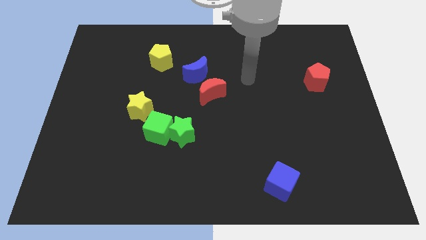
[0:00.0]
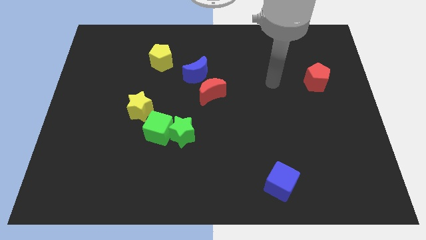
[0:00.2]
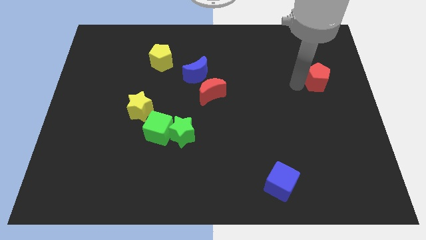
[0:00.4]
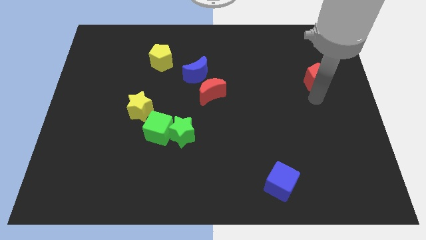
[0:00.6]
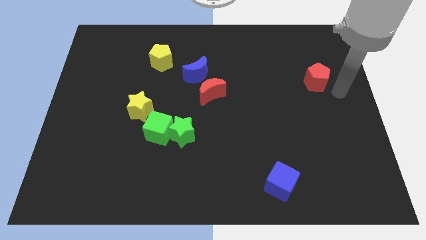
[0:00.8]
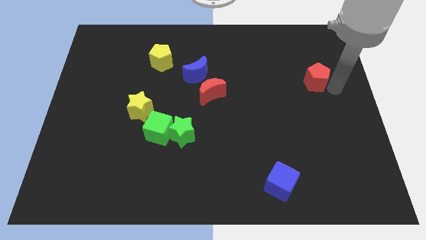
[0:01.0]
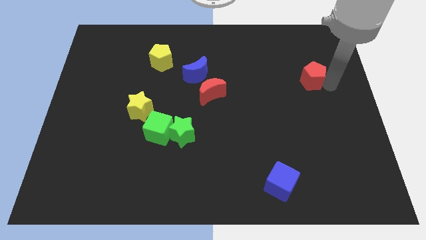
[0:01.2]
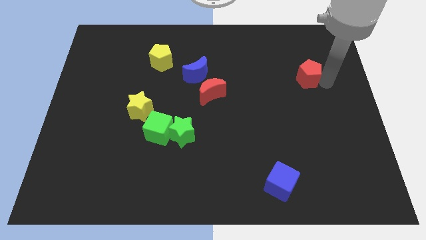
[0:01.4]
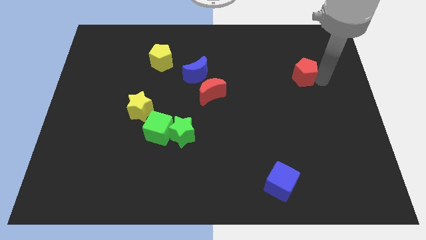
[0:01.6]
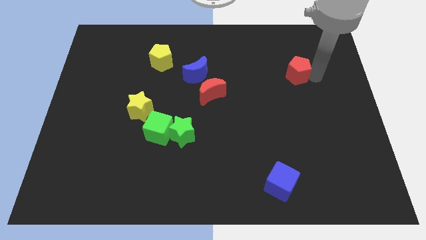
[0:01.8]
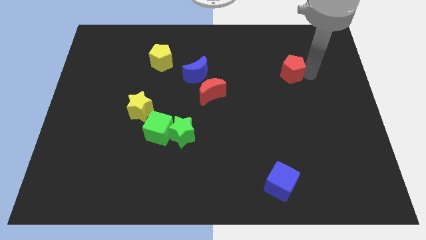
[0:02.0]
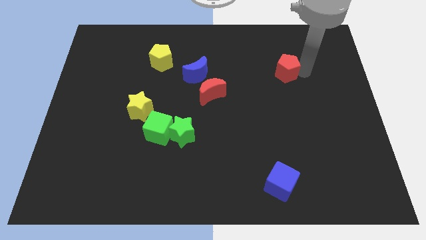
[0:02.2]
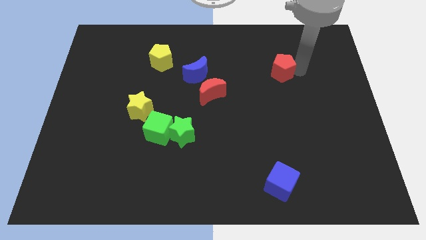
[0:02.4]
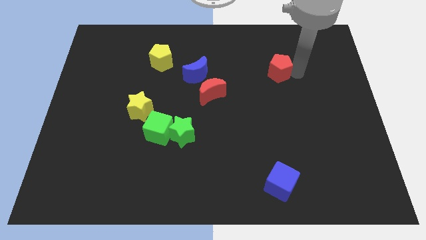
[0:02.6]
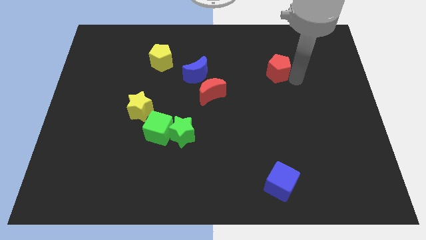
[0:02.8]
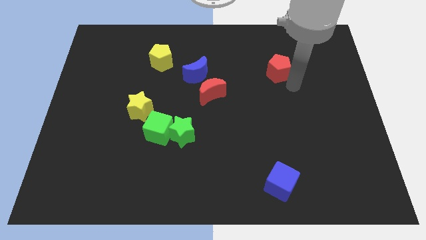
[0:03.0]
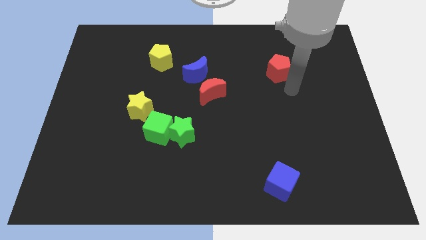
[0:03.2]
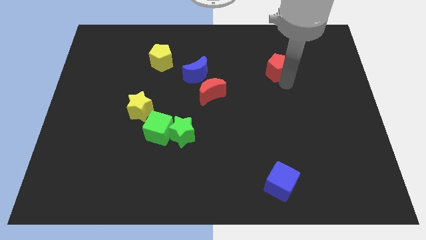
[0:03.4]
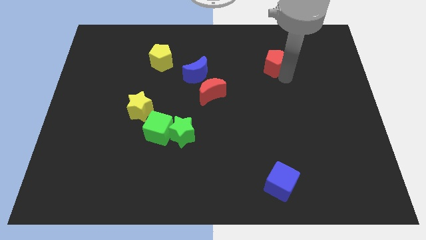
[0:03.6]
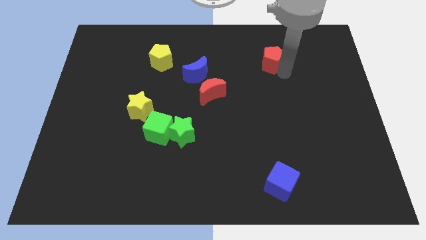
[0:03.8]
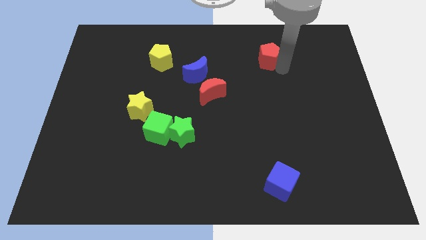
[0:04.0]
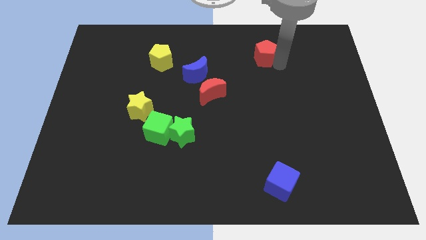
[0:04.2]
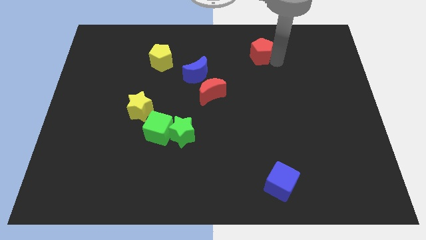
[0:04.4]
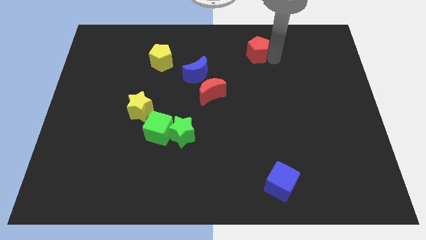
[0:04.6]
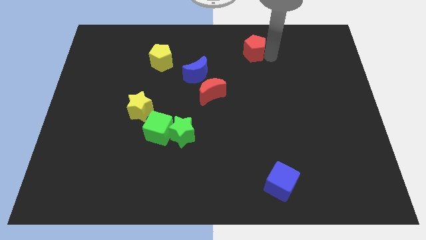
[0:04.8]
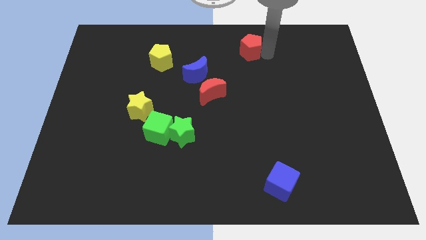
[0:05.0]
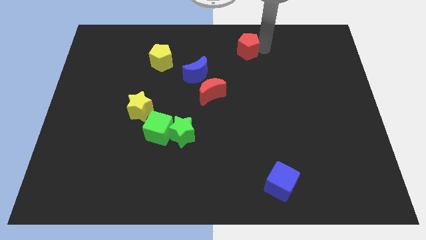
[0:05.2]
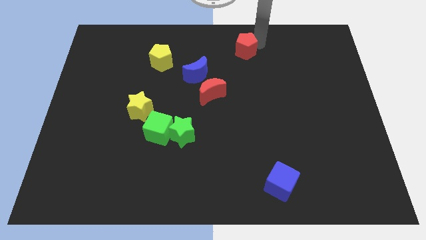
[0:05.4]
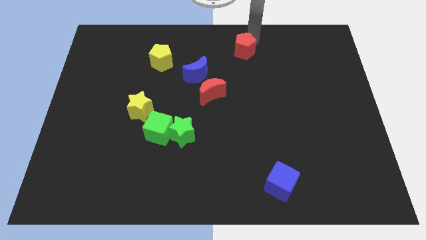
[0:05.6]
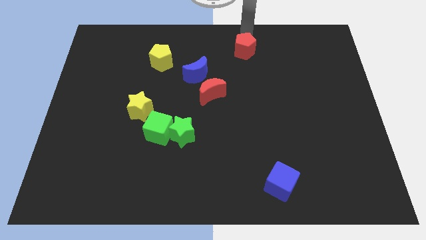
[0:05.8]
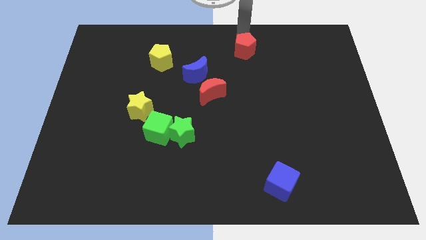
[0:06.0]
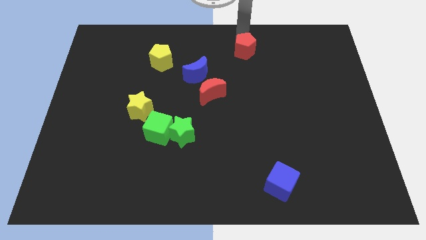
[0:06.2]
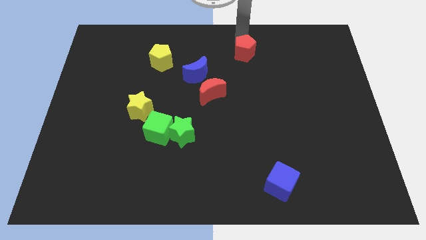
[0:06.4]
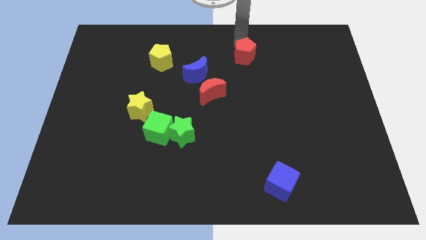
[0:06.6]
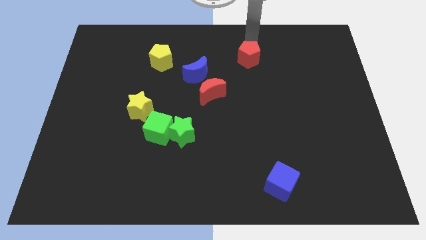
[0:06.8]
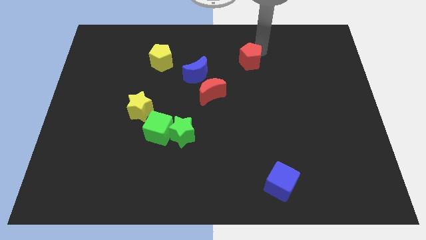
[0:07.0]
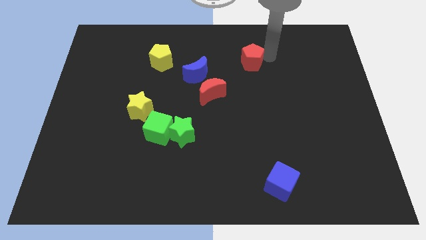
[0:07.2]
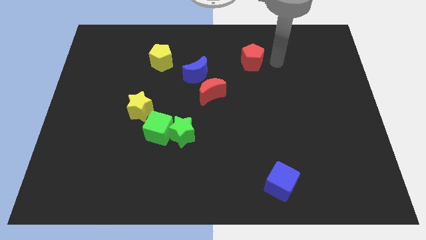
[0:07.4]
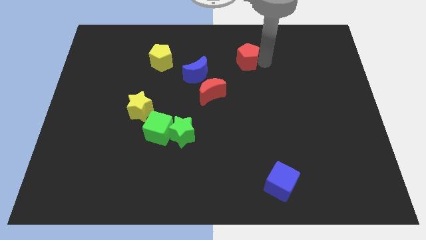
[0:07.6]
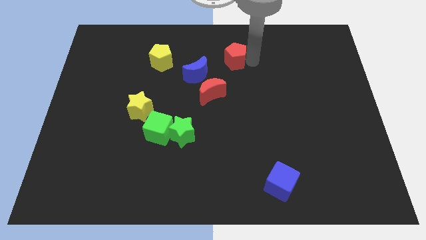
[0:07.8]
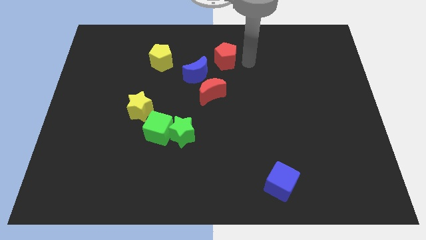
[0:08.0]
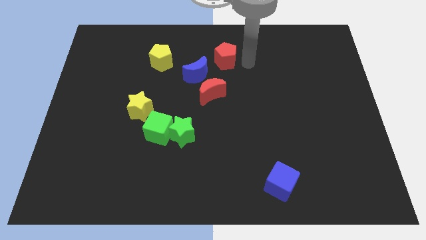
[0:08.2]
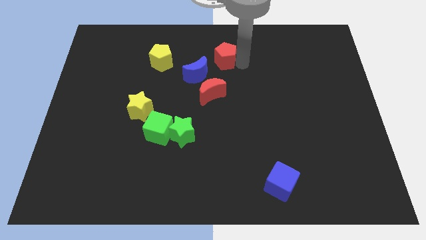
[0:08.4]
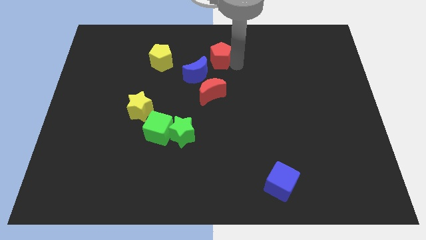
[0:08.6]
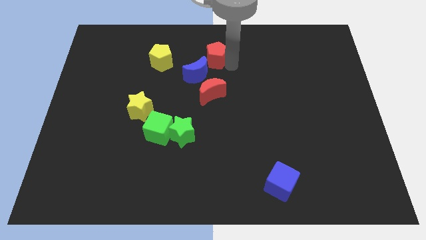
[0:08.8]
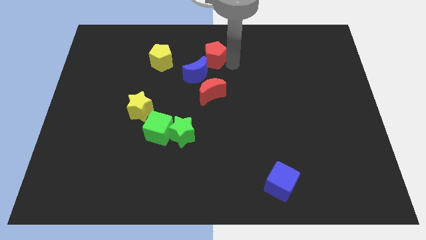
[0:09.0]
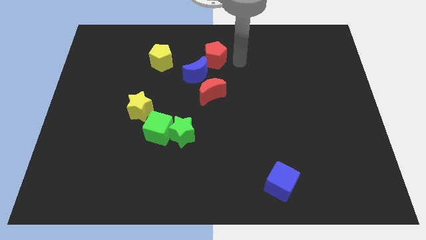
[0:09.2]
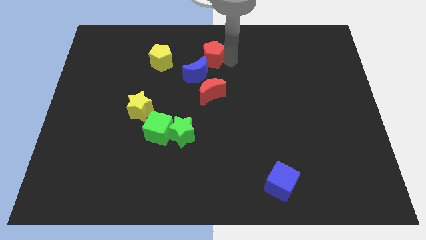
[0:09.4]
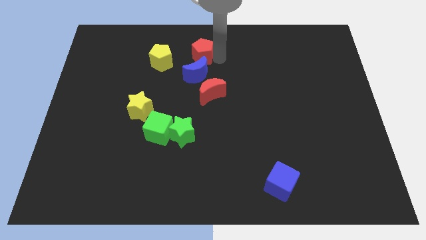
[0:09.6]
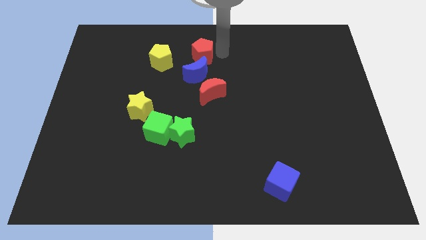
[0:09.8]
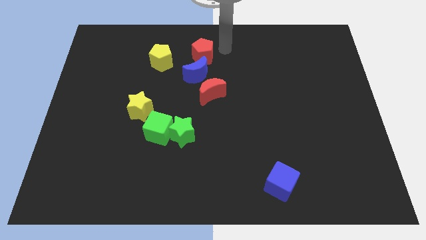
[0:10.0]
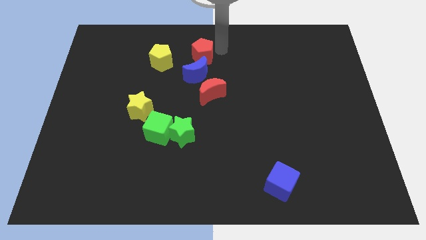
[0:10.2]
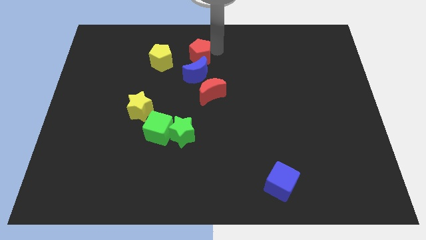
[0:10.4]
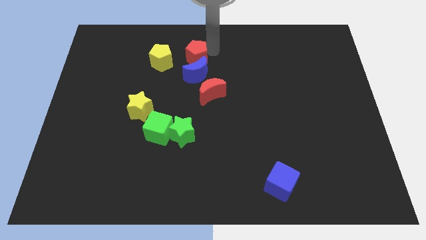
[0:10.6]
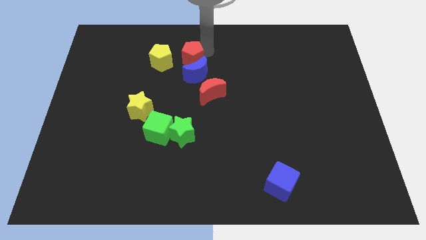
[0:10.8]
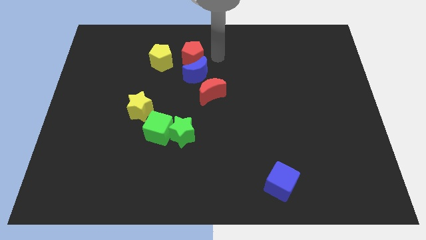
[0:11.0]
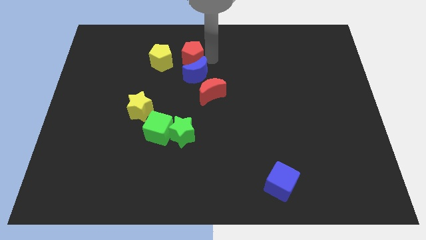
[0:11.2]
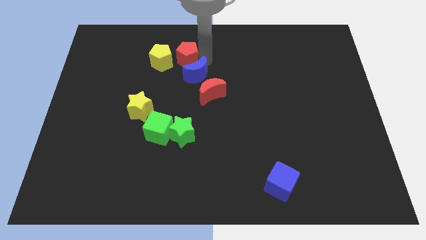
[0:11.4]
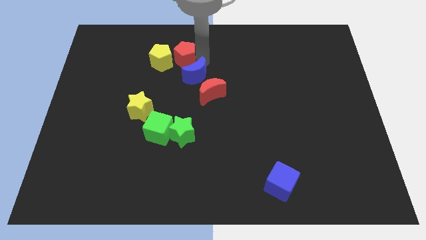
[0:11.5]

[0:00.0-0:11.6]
push the red pentagon close to the yellow pentagon

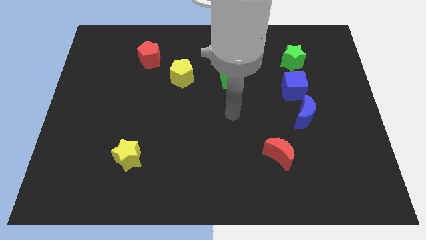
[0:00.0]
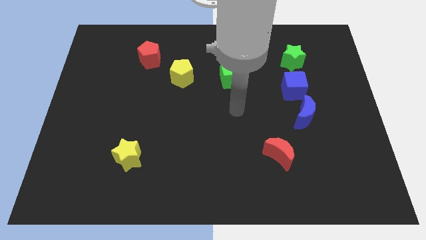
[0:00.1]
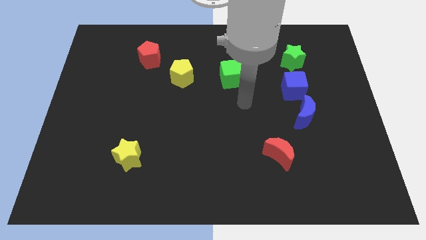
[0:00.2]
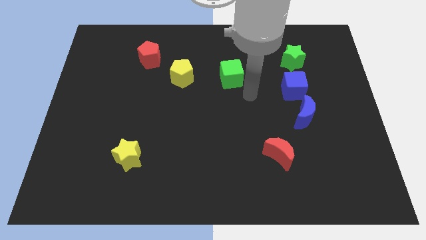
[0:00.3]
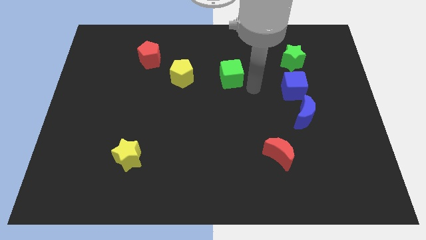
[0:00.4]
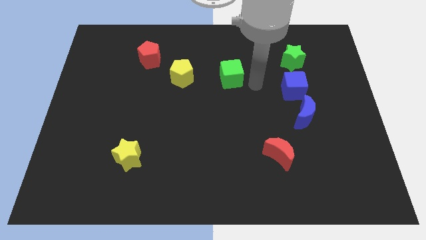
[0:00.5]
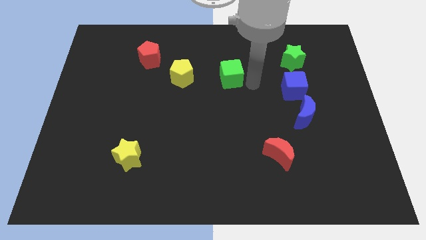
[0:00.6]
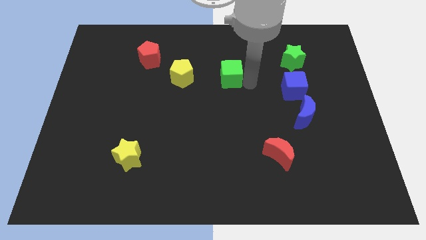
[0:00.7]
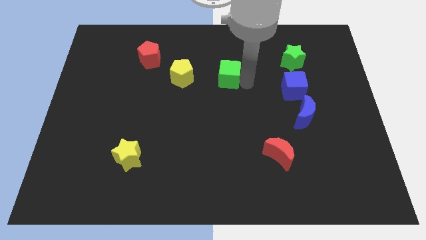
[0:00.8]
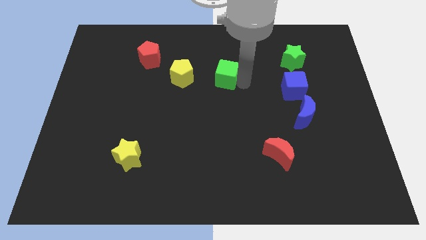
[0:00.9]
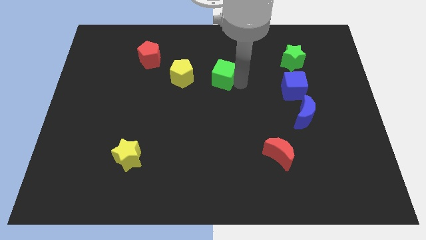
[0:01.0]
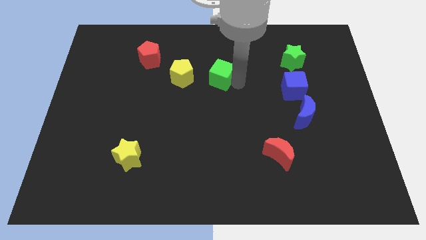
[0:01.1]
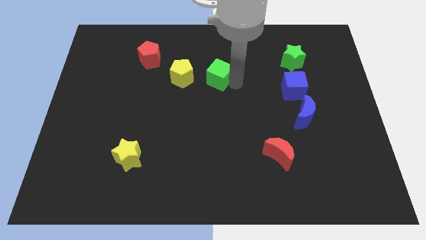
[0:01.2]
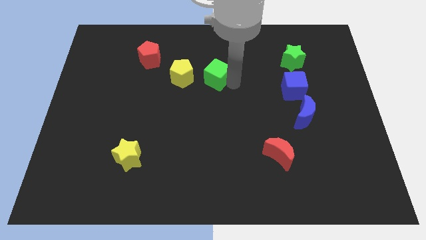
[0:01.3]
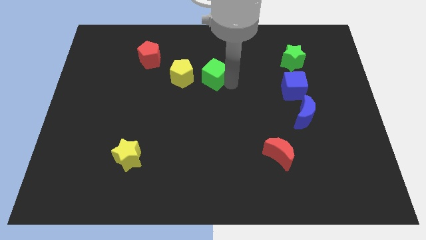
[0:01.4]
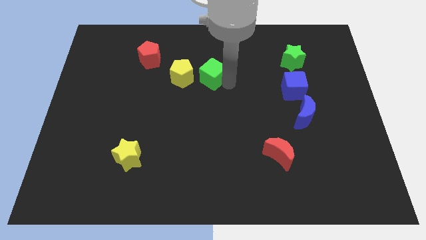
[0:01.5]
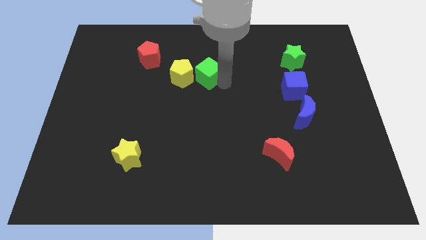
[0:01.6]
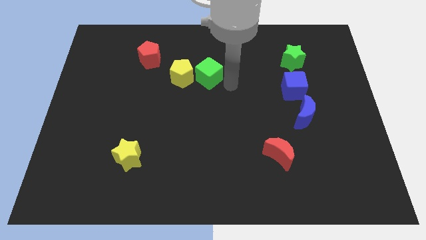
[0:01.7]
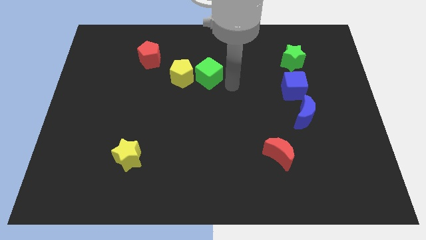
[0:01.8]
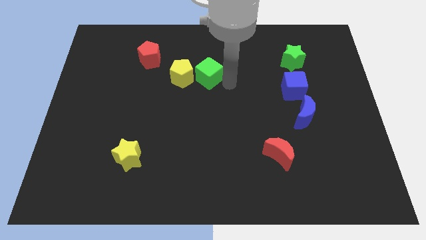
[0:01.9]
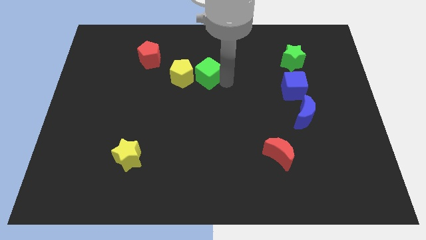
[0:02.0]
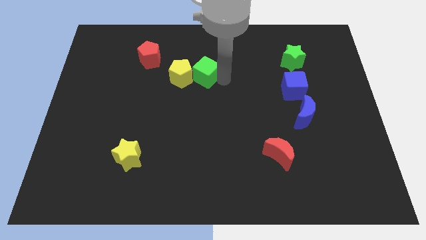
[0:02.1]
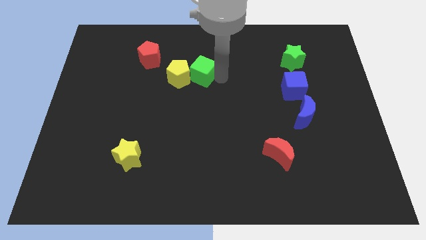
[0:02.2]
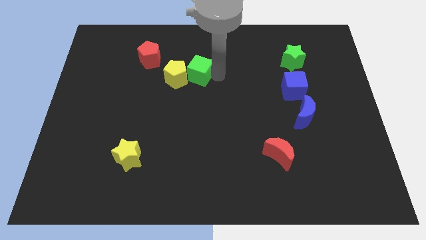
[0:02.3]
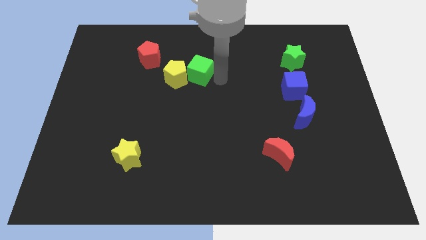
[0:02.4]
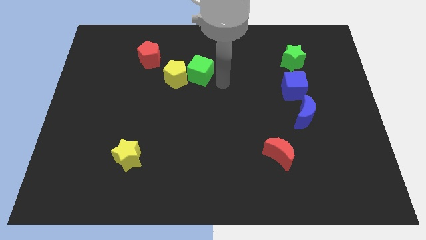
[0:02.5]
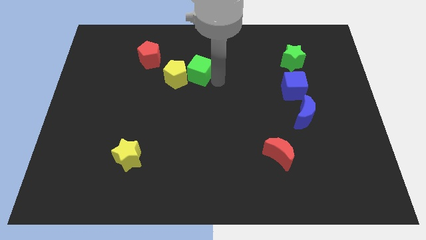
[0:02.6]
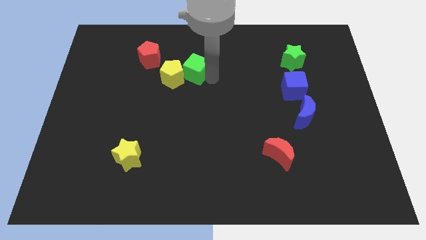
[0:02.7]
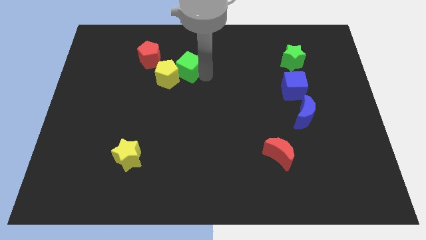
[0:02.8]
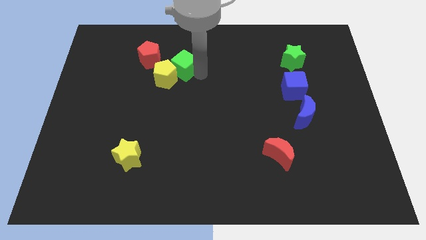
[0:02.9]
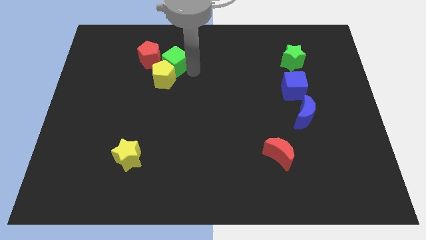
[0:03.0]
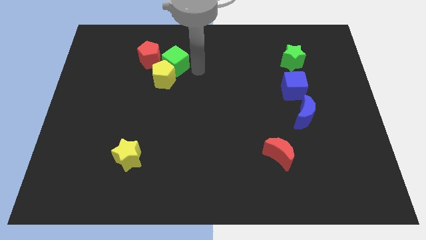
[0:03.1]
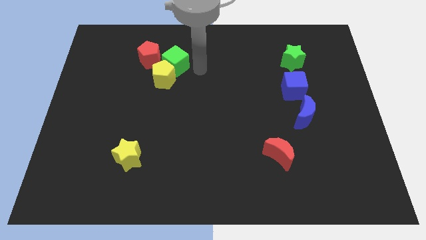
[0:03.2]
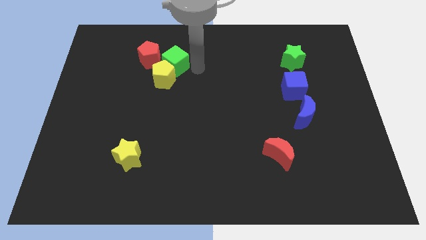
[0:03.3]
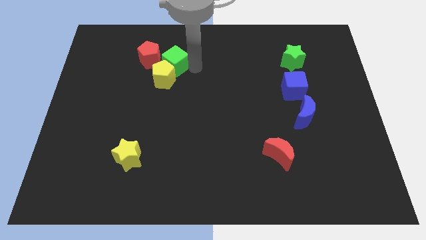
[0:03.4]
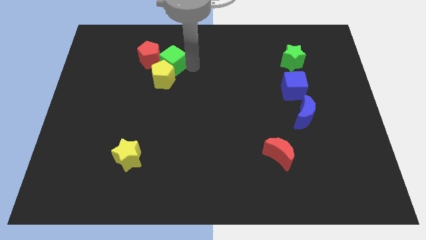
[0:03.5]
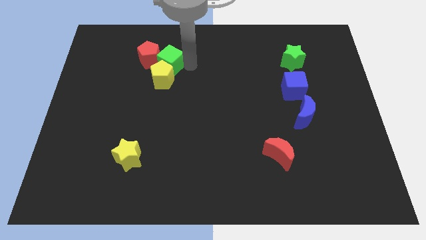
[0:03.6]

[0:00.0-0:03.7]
slide the green cube next to the red pentagon
